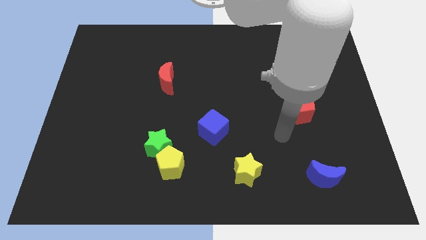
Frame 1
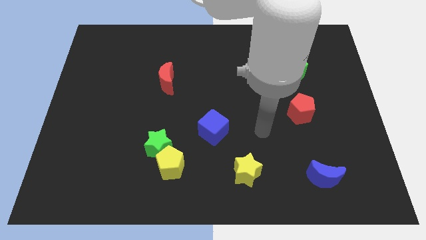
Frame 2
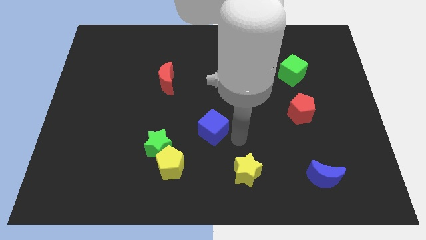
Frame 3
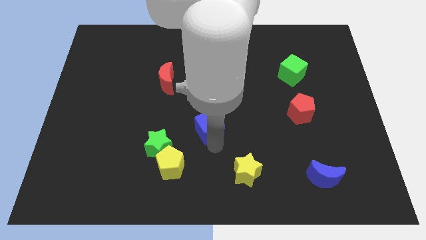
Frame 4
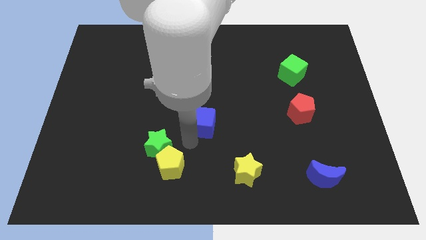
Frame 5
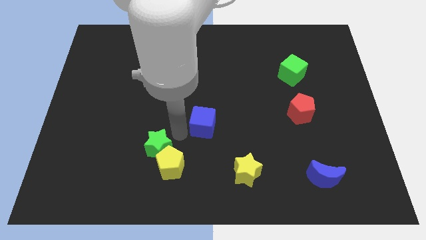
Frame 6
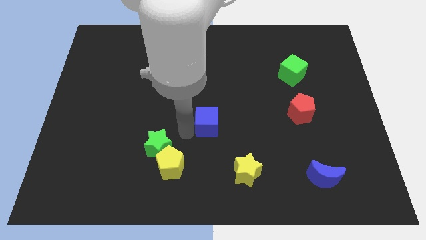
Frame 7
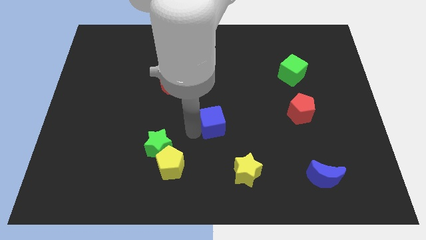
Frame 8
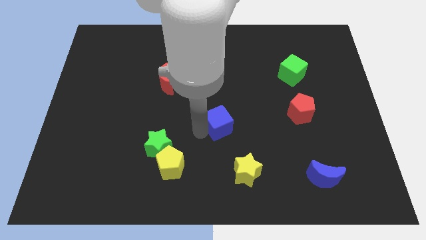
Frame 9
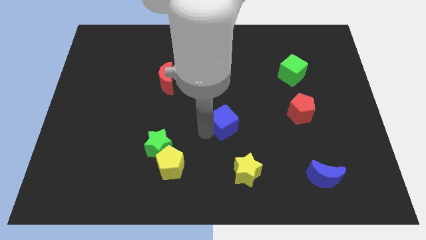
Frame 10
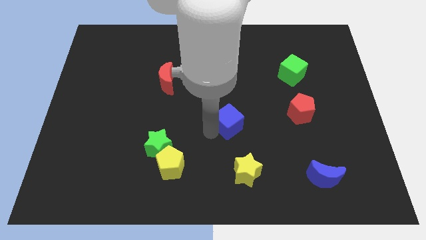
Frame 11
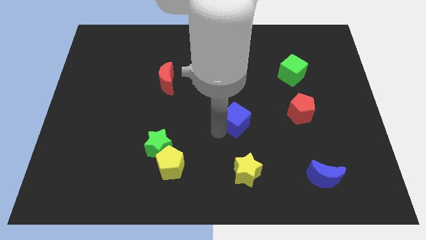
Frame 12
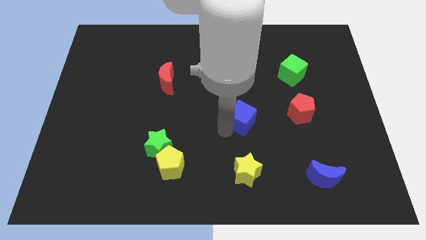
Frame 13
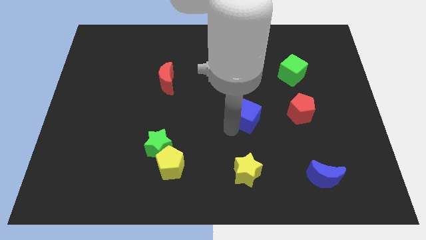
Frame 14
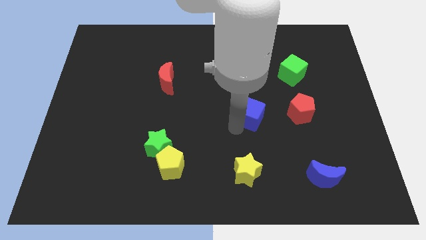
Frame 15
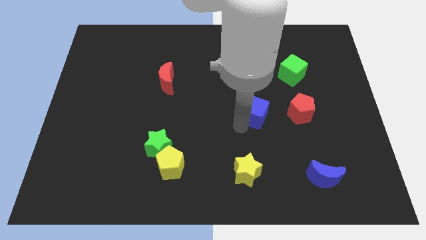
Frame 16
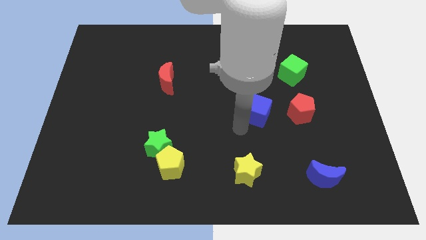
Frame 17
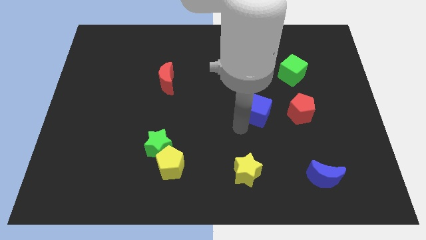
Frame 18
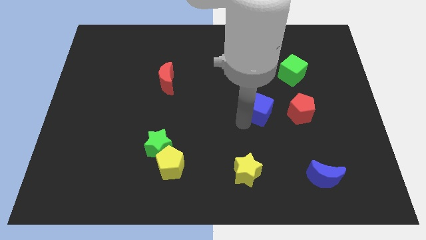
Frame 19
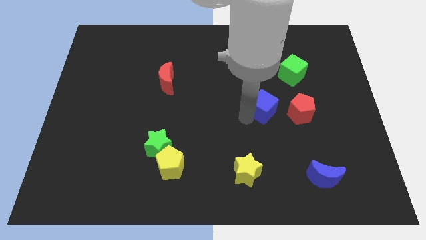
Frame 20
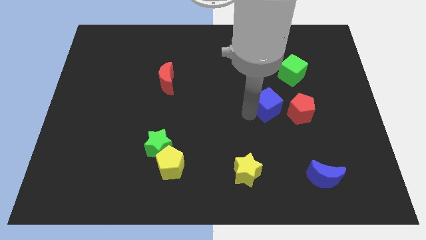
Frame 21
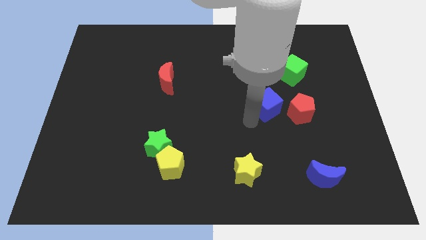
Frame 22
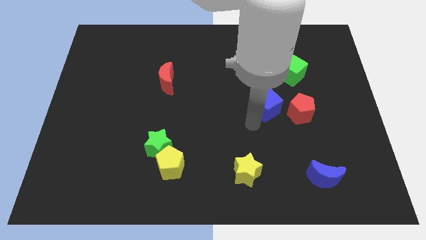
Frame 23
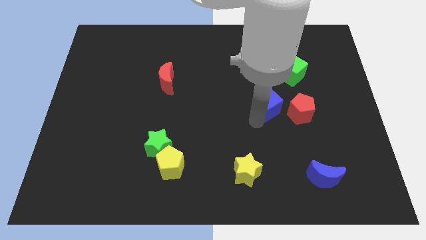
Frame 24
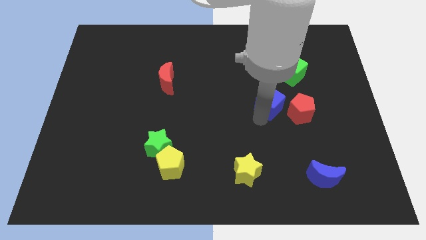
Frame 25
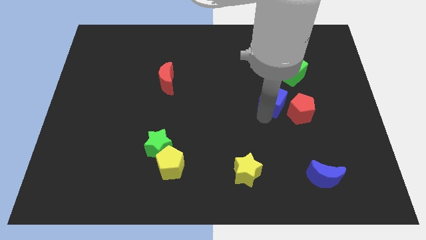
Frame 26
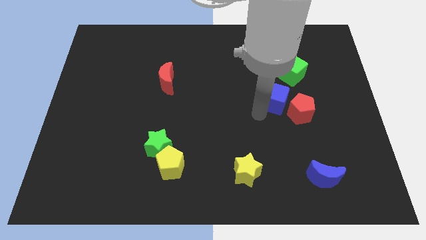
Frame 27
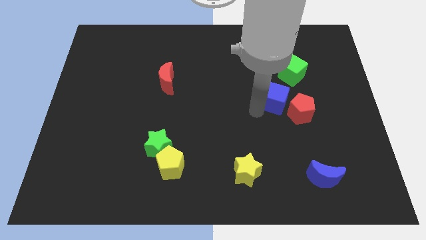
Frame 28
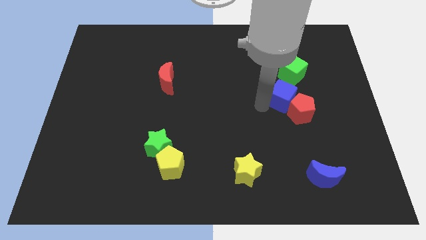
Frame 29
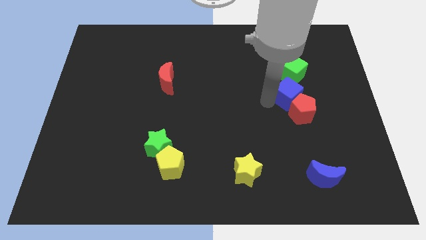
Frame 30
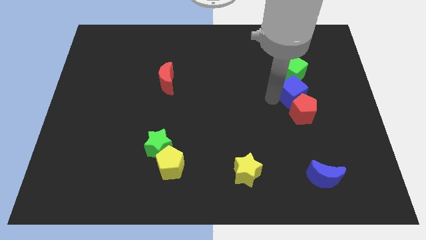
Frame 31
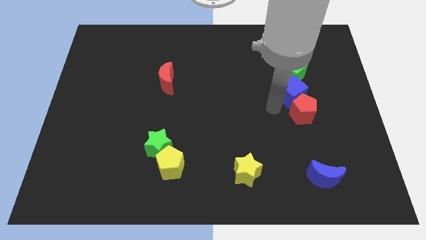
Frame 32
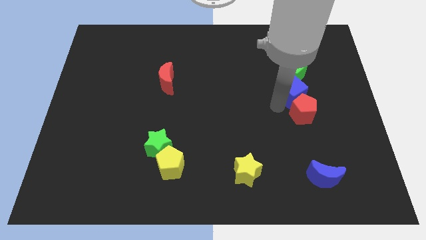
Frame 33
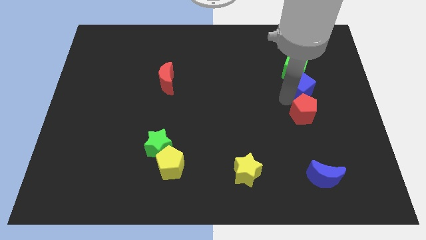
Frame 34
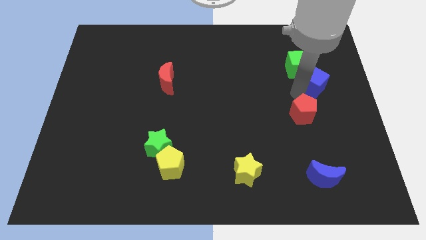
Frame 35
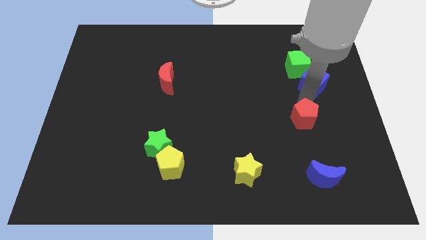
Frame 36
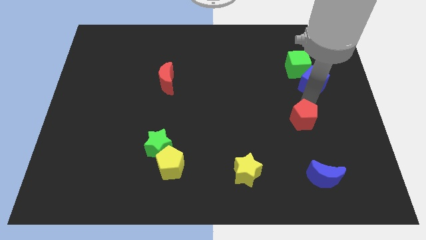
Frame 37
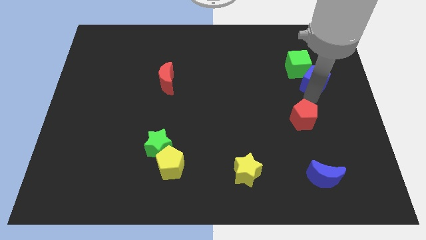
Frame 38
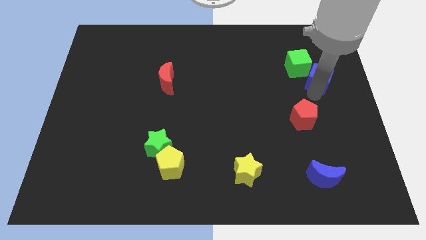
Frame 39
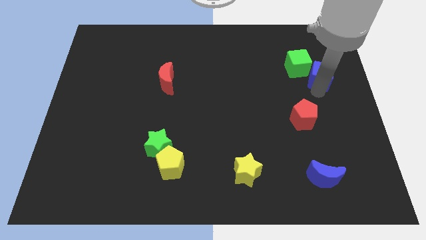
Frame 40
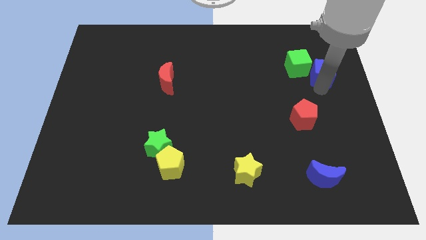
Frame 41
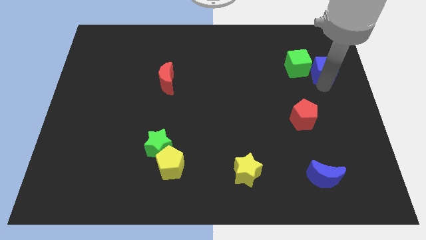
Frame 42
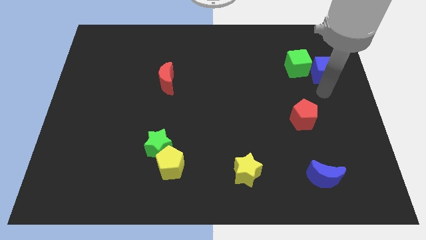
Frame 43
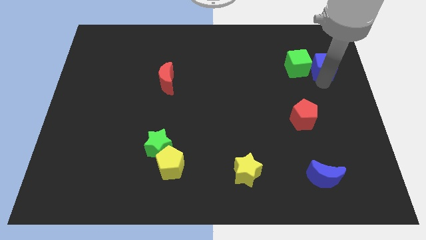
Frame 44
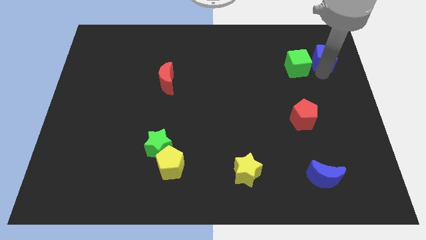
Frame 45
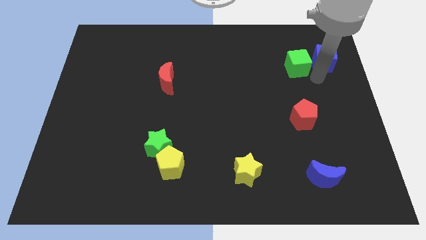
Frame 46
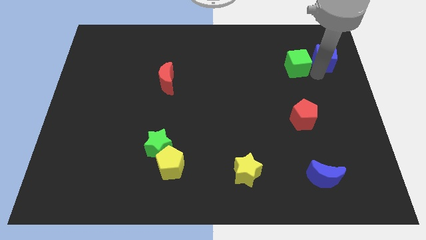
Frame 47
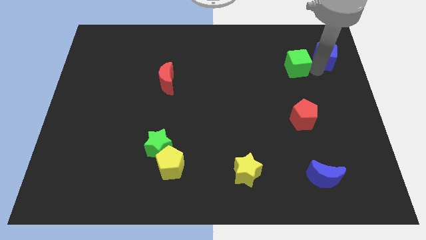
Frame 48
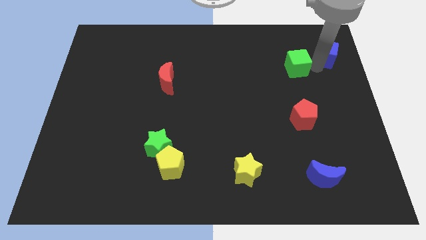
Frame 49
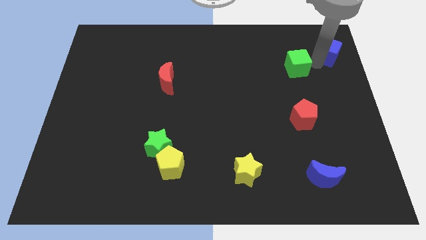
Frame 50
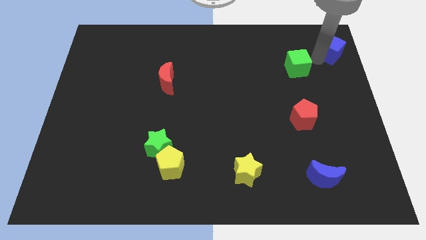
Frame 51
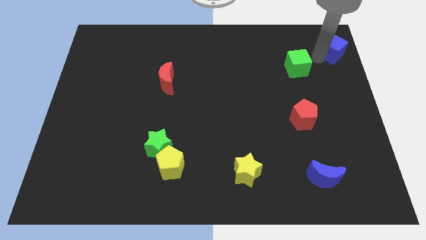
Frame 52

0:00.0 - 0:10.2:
put the blue cube to the top right of the board
